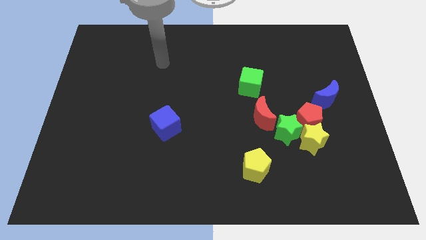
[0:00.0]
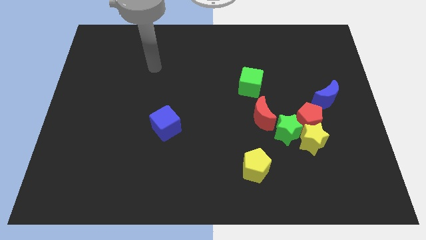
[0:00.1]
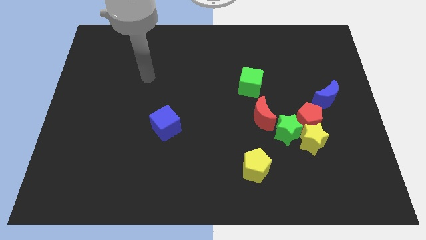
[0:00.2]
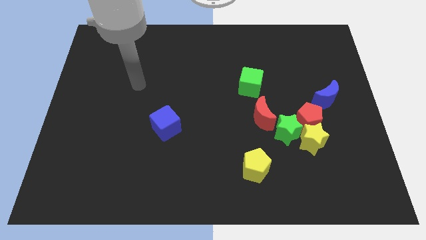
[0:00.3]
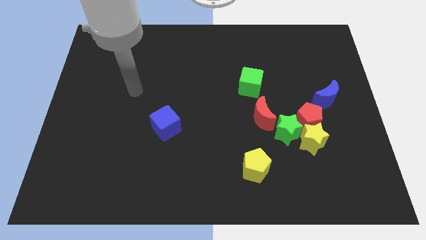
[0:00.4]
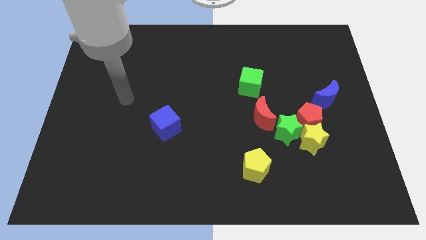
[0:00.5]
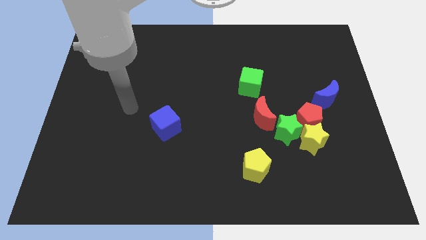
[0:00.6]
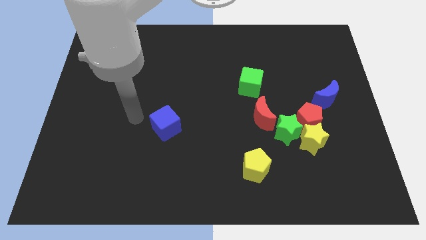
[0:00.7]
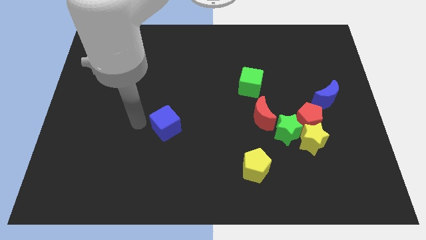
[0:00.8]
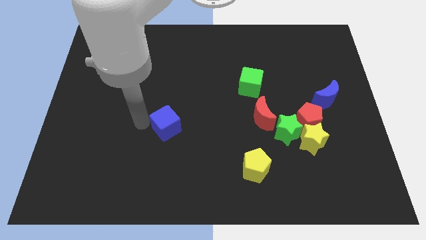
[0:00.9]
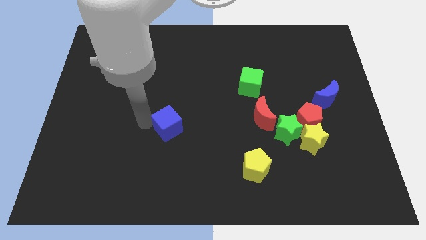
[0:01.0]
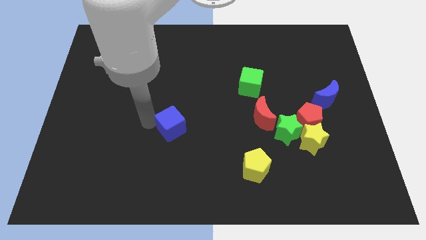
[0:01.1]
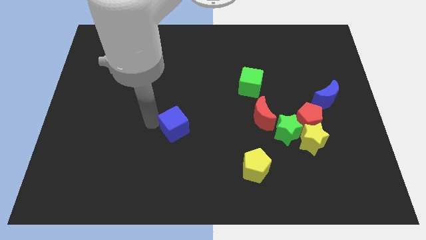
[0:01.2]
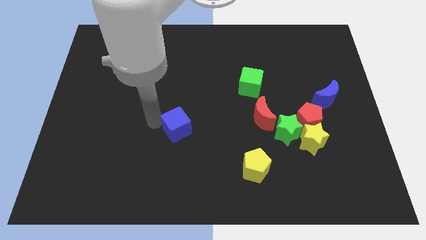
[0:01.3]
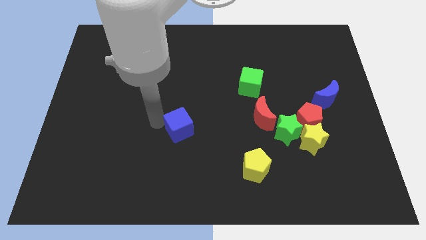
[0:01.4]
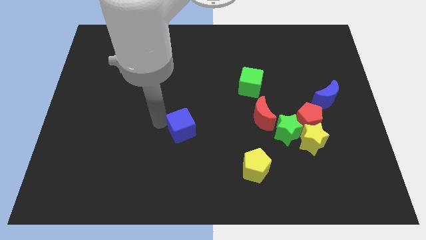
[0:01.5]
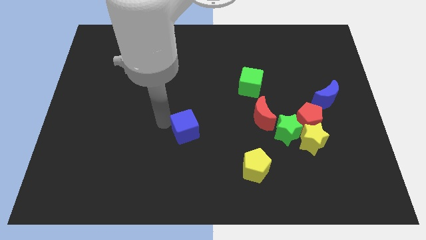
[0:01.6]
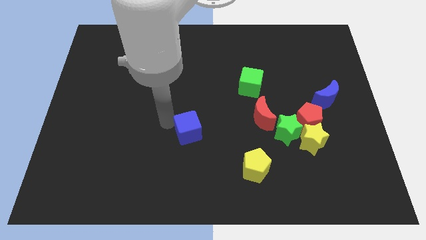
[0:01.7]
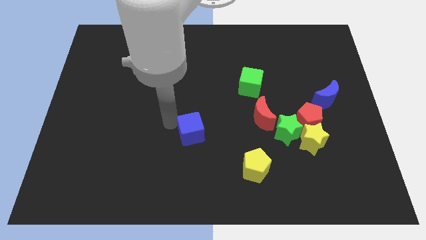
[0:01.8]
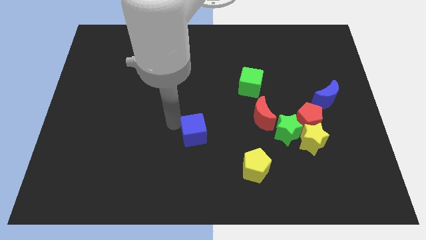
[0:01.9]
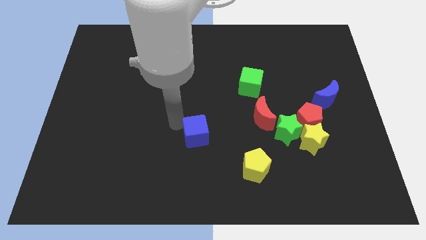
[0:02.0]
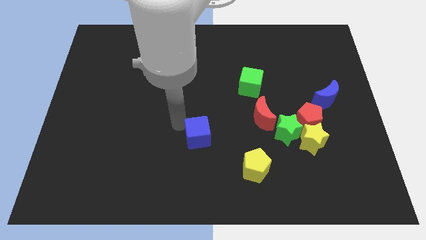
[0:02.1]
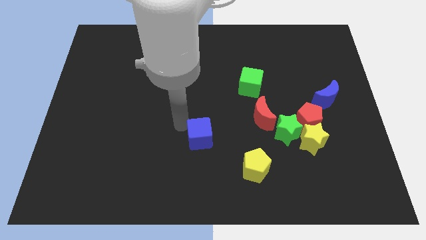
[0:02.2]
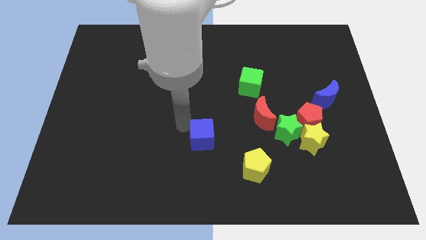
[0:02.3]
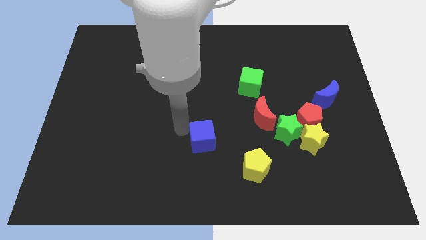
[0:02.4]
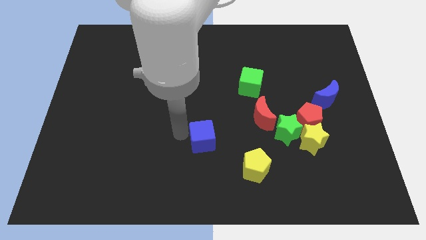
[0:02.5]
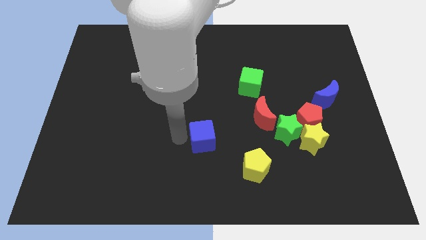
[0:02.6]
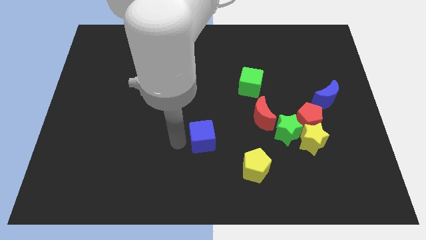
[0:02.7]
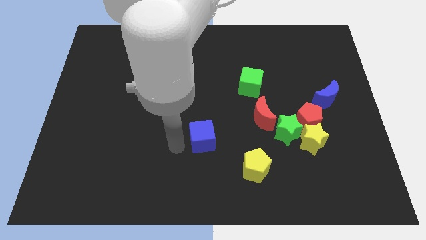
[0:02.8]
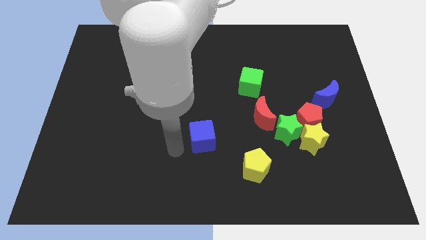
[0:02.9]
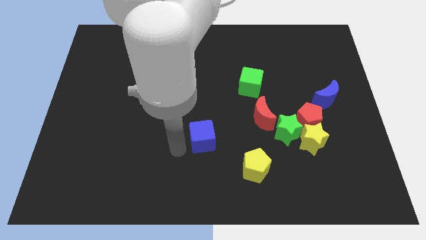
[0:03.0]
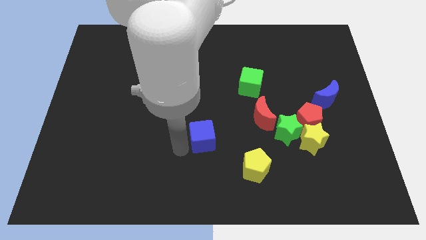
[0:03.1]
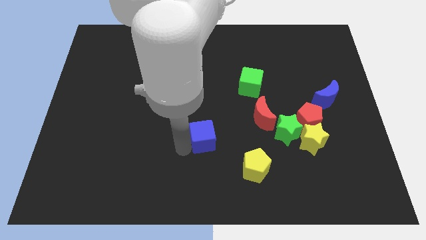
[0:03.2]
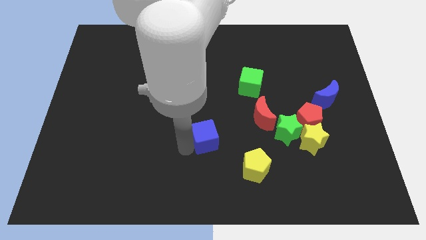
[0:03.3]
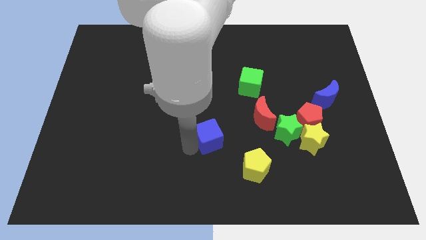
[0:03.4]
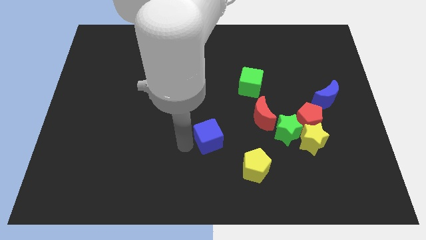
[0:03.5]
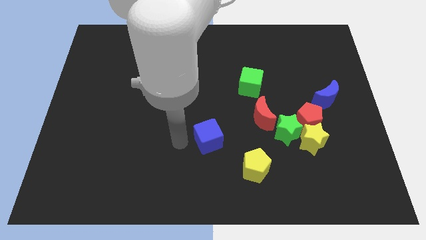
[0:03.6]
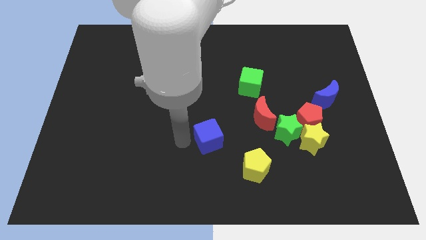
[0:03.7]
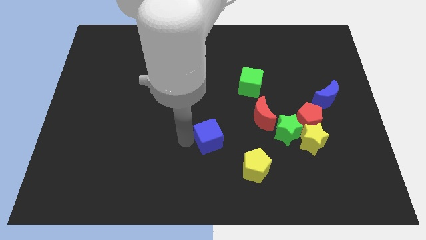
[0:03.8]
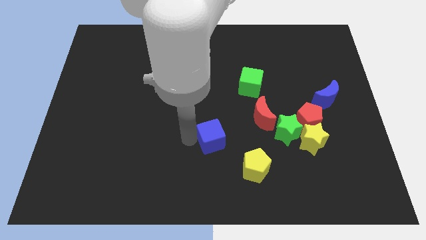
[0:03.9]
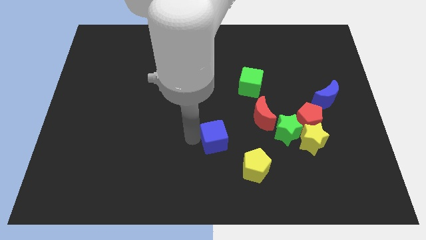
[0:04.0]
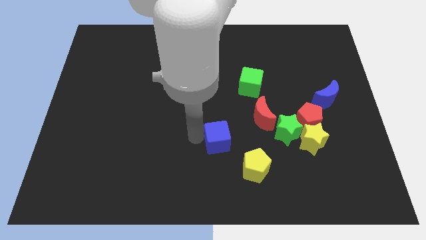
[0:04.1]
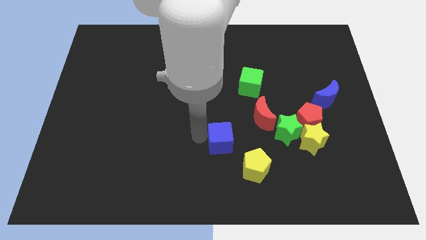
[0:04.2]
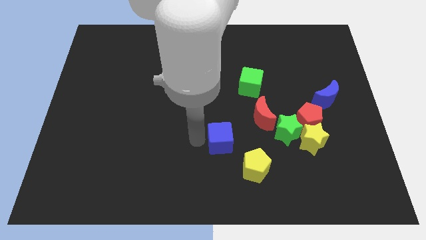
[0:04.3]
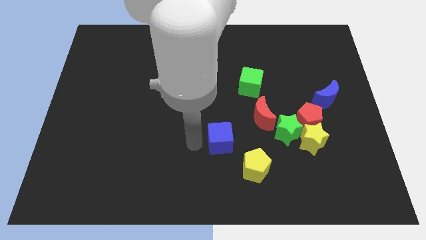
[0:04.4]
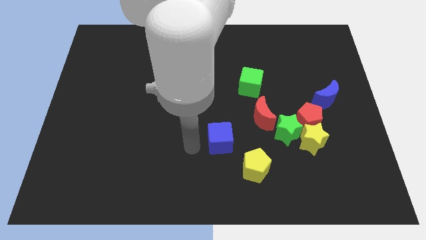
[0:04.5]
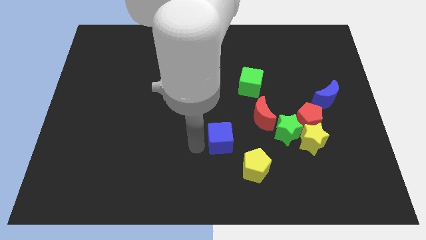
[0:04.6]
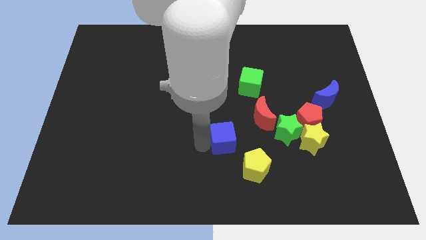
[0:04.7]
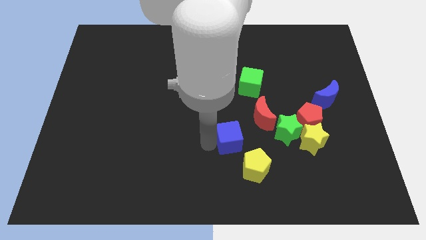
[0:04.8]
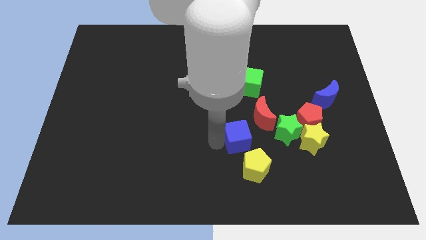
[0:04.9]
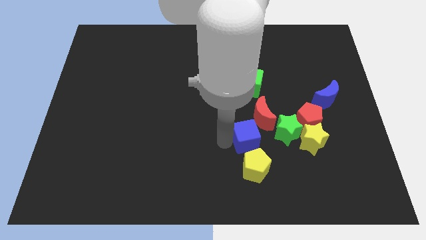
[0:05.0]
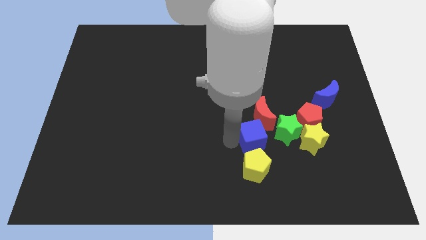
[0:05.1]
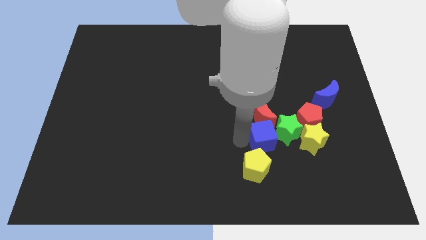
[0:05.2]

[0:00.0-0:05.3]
slide the blue cube to the green star

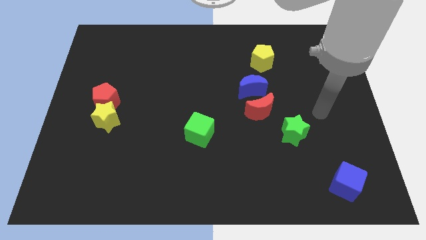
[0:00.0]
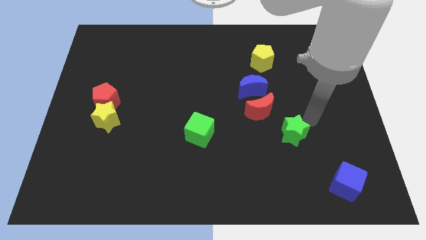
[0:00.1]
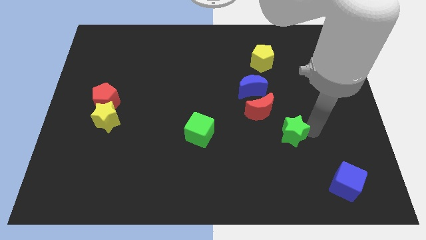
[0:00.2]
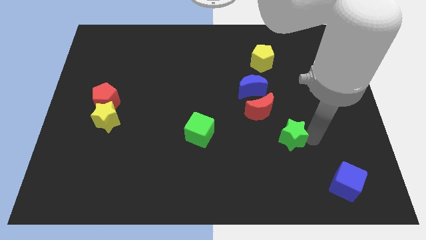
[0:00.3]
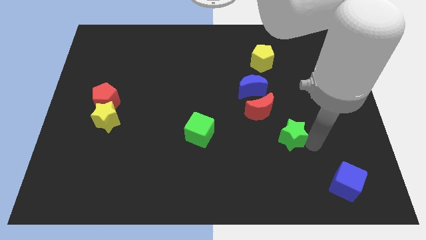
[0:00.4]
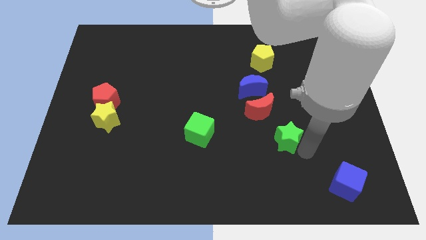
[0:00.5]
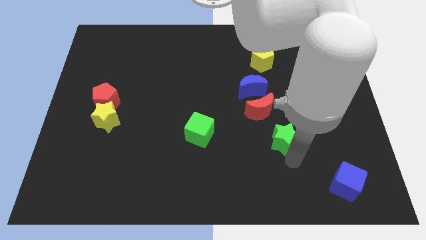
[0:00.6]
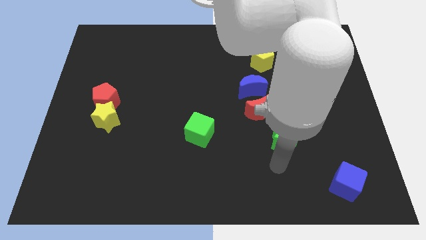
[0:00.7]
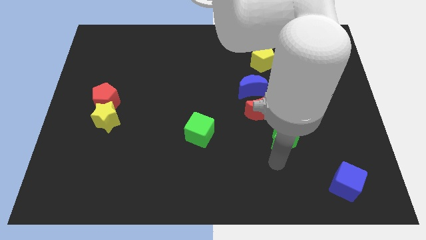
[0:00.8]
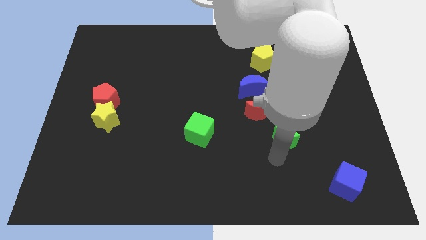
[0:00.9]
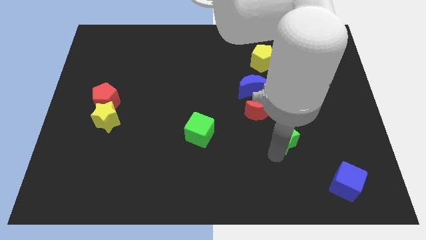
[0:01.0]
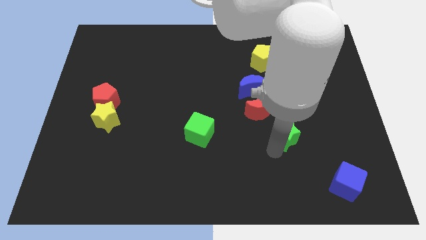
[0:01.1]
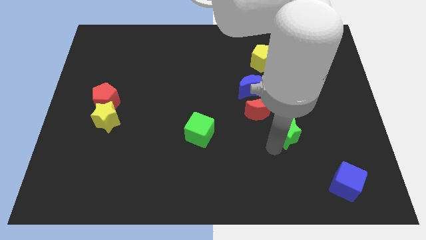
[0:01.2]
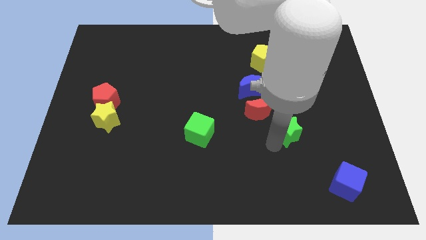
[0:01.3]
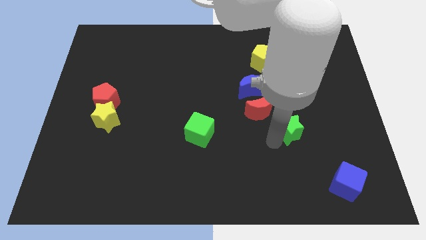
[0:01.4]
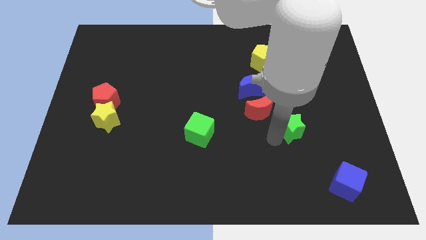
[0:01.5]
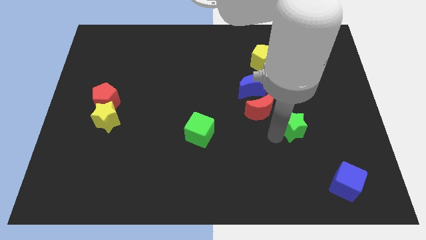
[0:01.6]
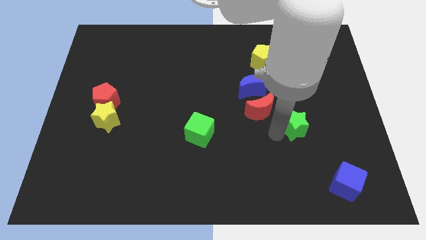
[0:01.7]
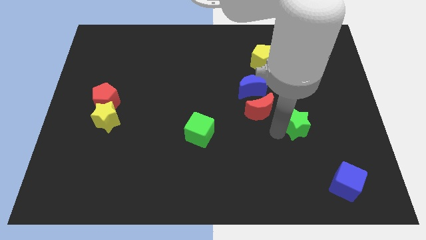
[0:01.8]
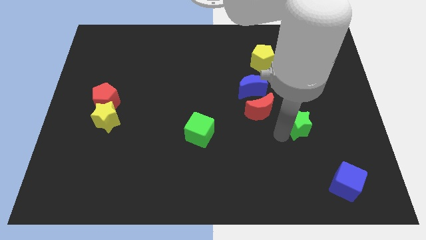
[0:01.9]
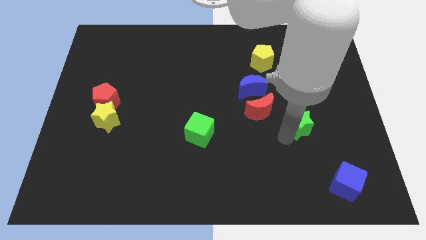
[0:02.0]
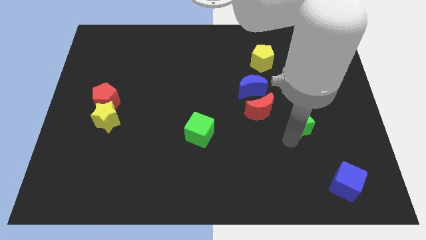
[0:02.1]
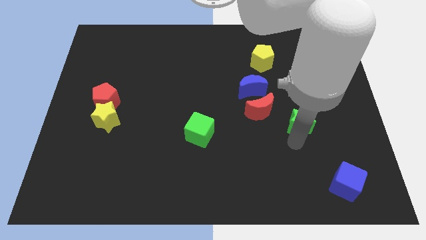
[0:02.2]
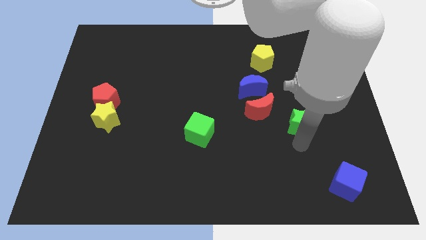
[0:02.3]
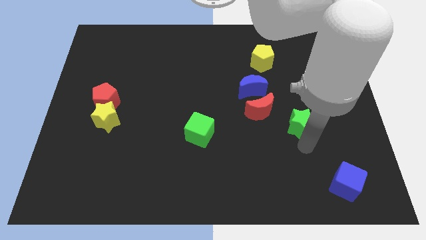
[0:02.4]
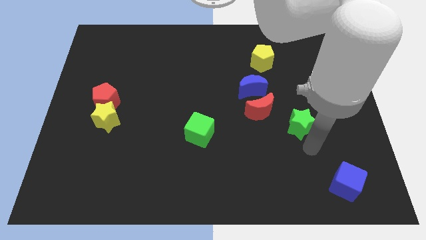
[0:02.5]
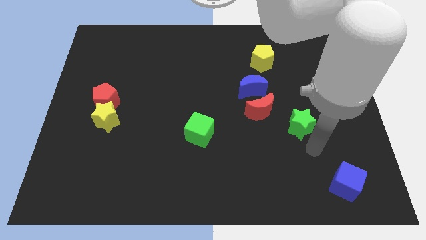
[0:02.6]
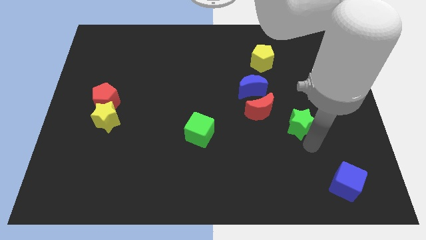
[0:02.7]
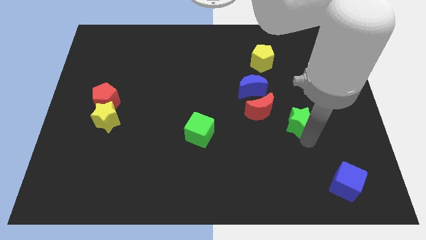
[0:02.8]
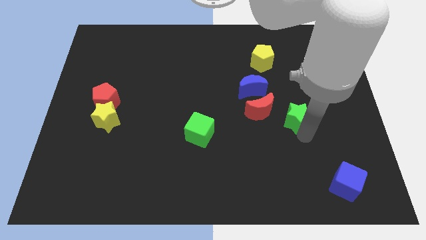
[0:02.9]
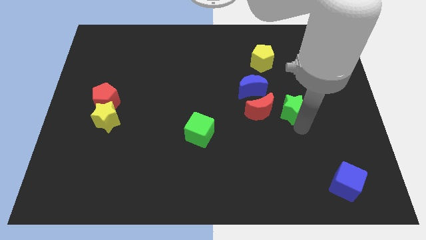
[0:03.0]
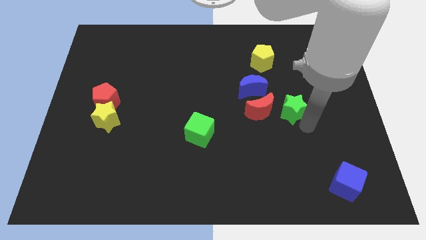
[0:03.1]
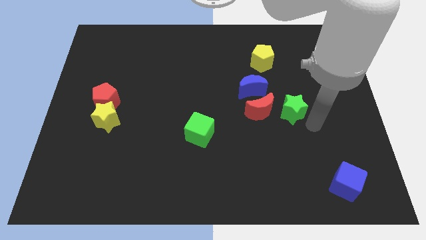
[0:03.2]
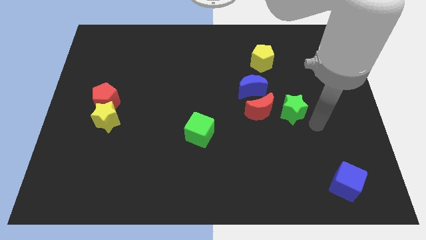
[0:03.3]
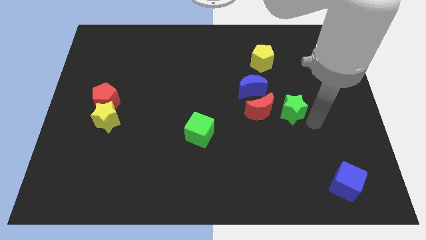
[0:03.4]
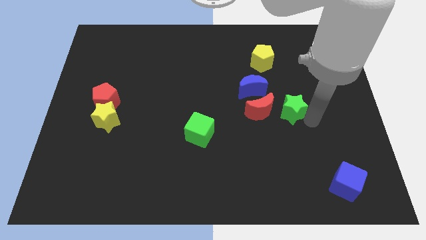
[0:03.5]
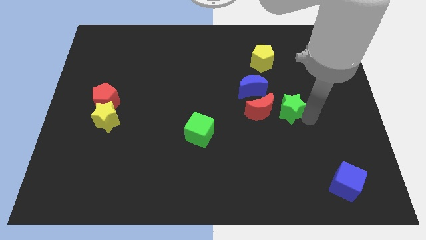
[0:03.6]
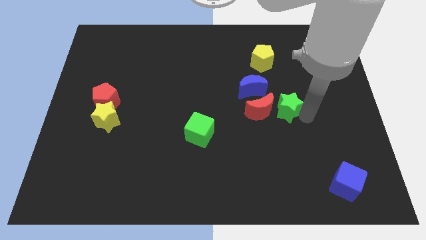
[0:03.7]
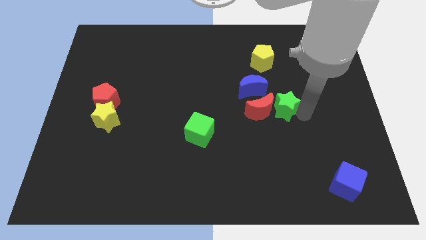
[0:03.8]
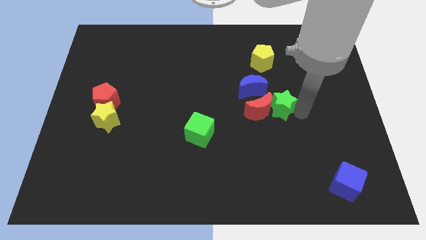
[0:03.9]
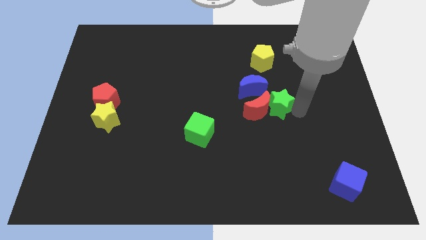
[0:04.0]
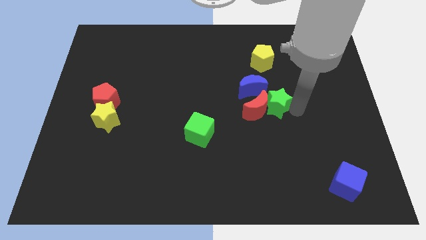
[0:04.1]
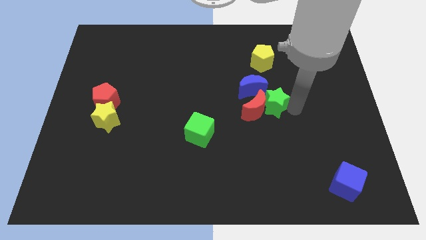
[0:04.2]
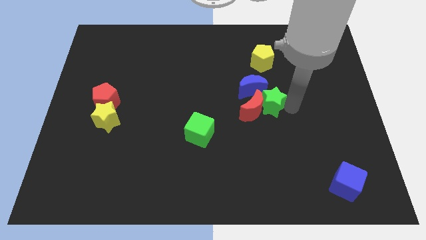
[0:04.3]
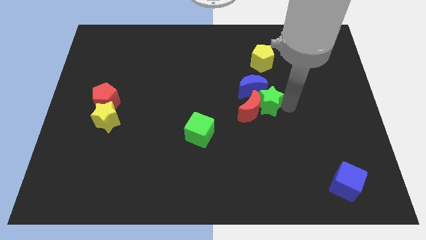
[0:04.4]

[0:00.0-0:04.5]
put the green star to the blue moon
